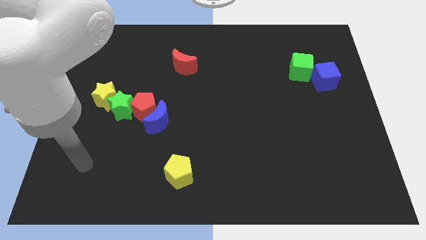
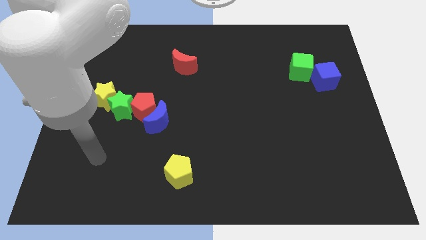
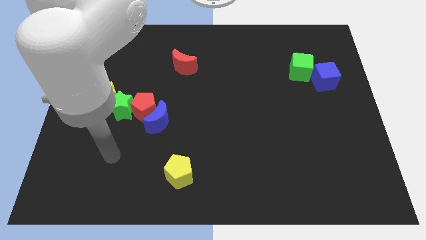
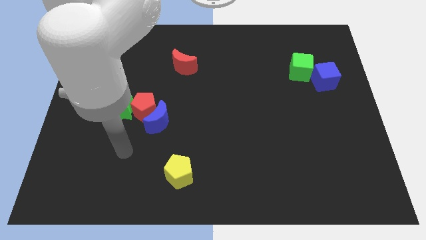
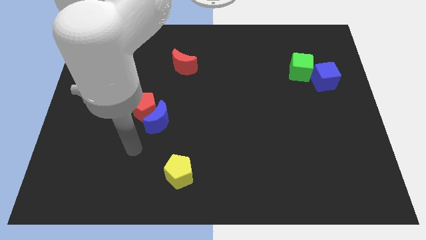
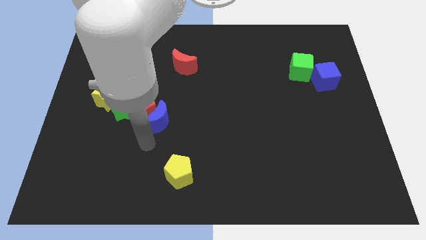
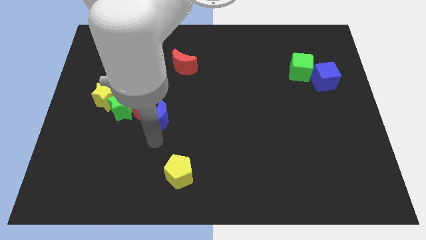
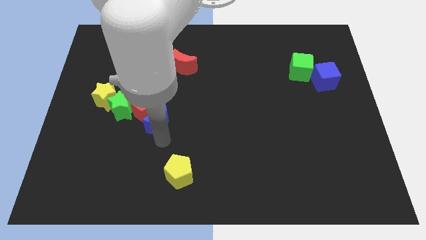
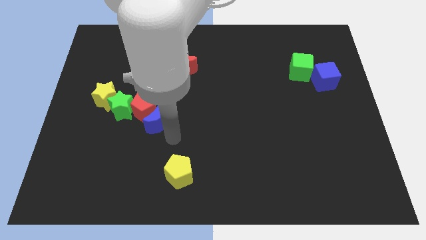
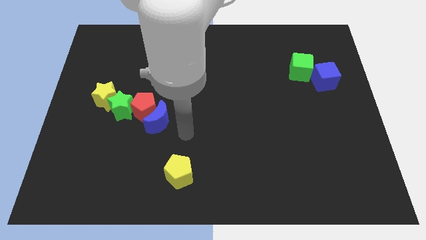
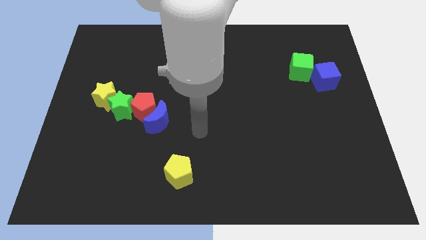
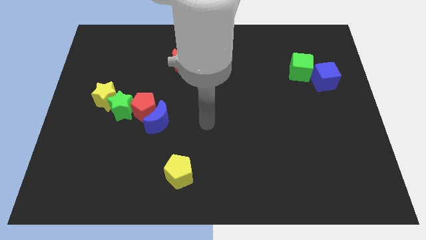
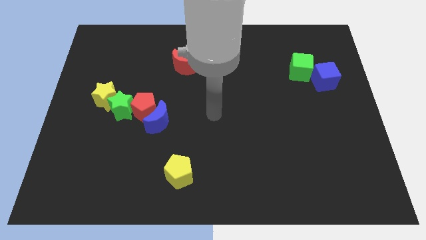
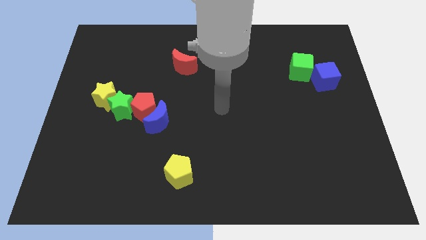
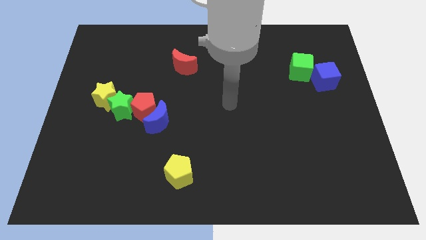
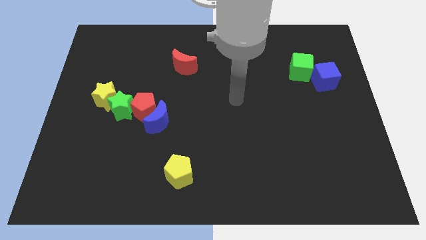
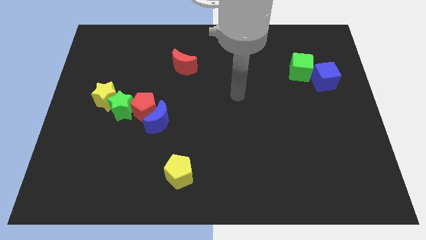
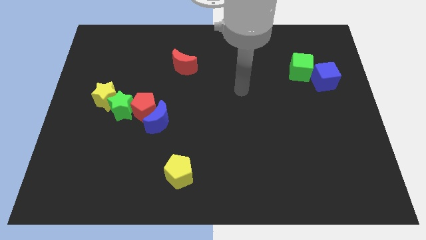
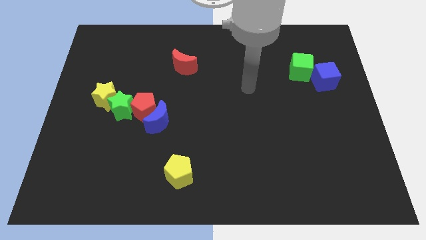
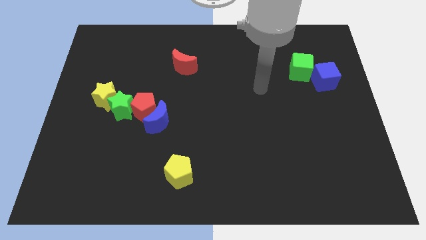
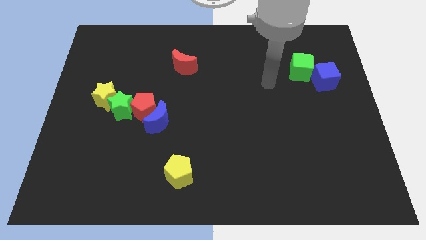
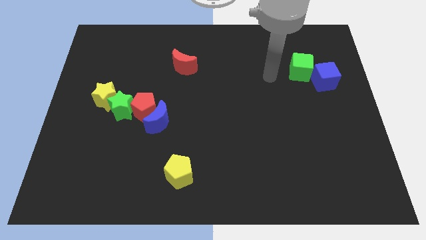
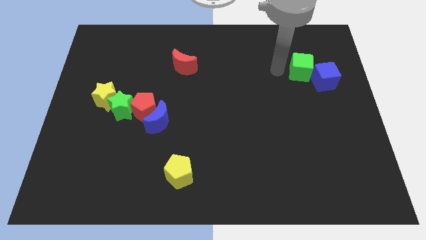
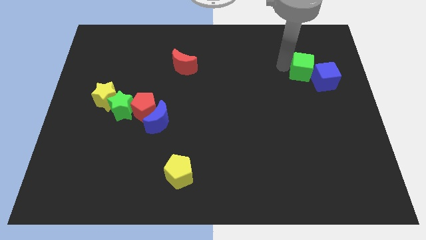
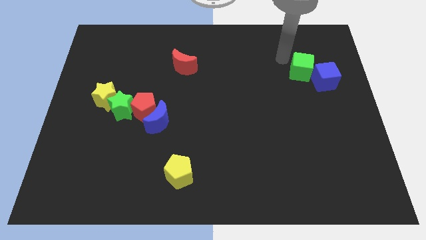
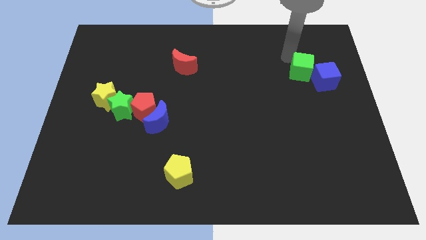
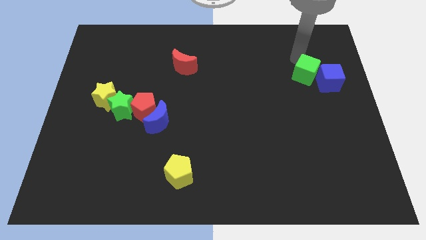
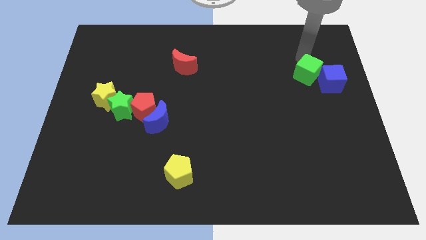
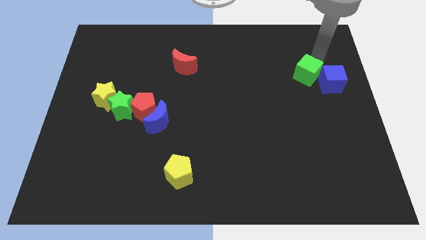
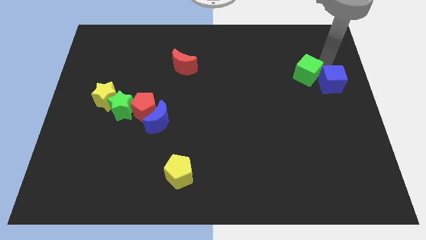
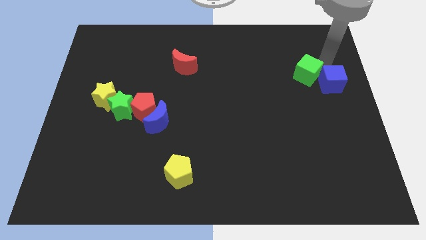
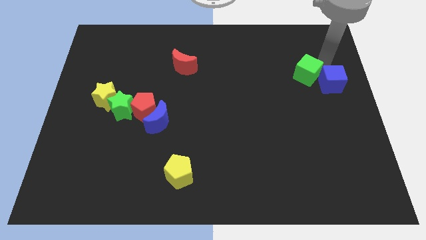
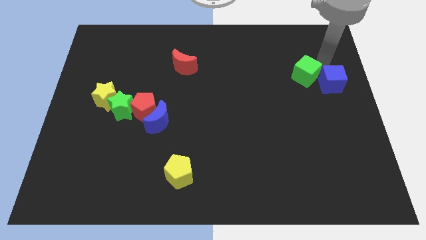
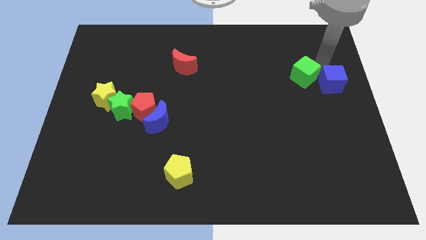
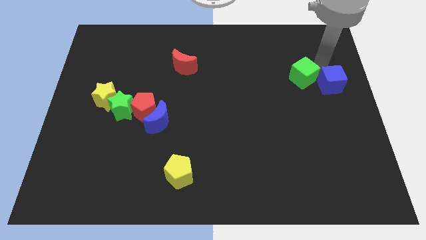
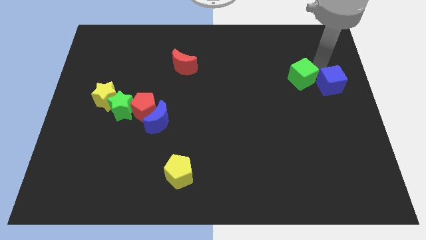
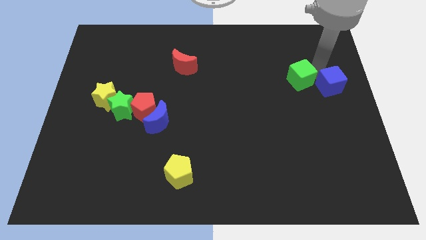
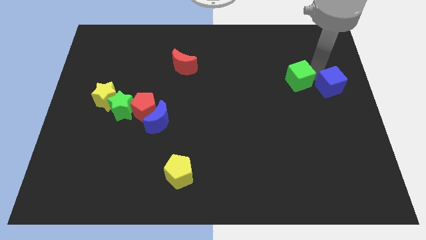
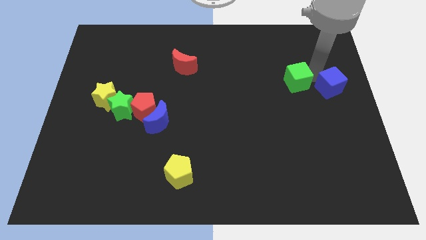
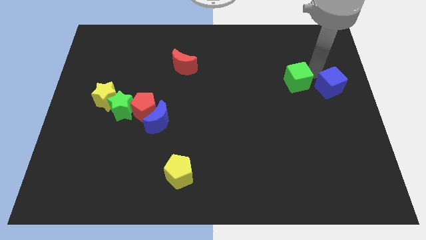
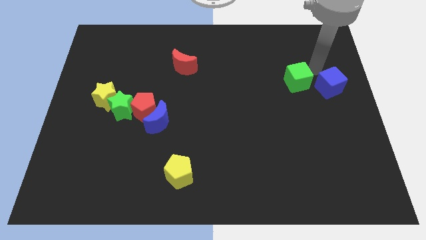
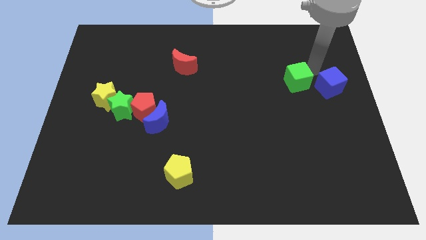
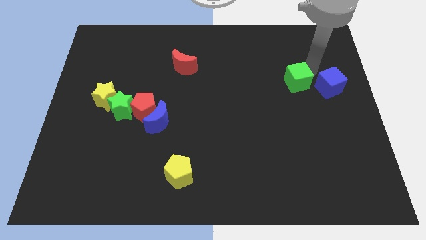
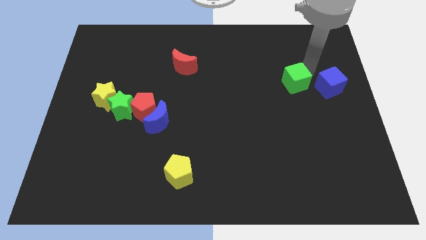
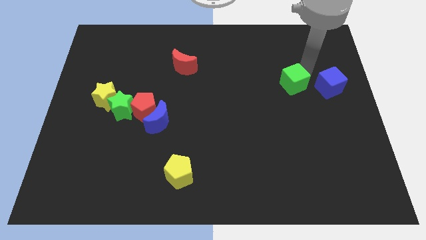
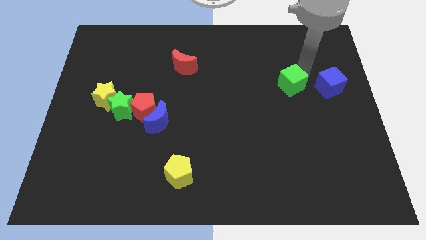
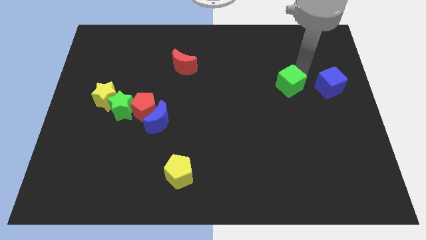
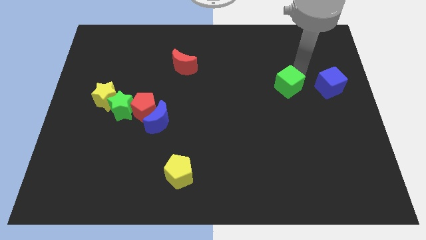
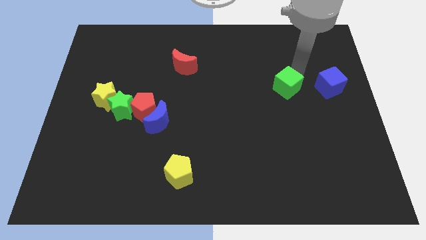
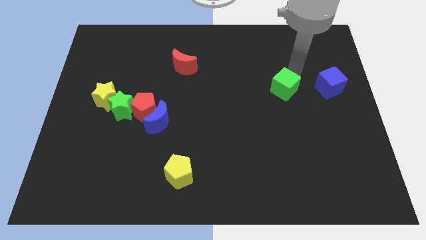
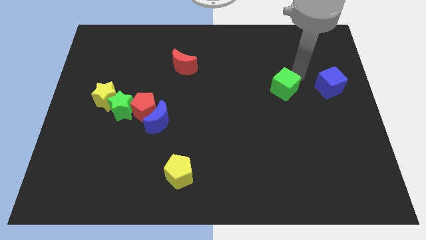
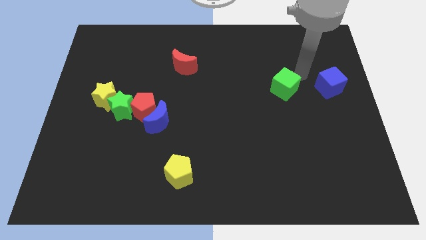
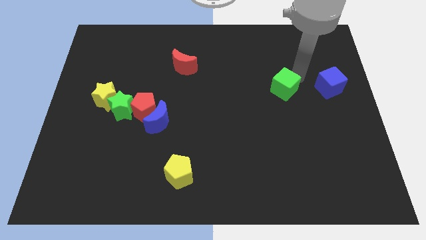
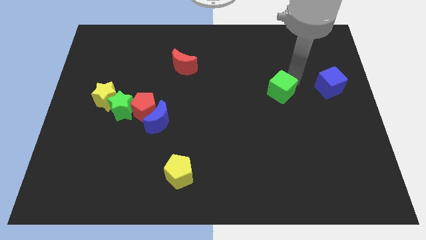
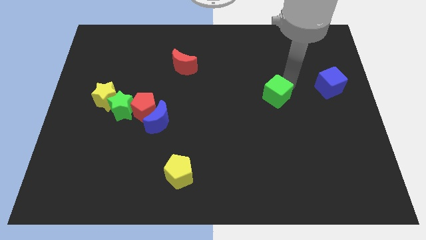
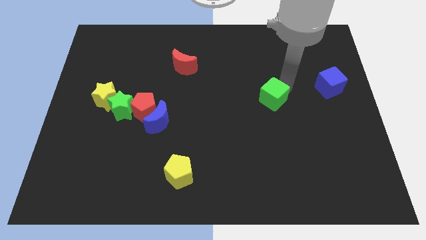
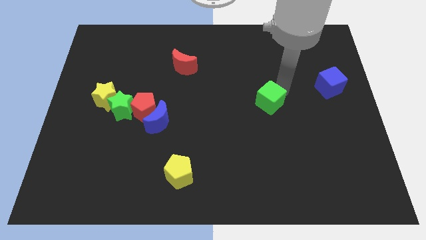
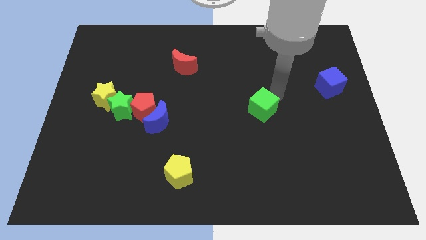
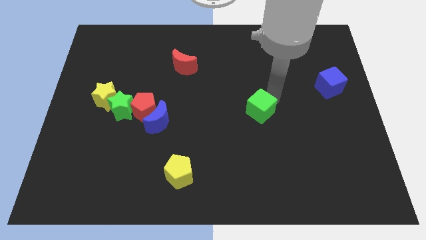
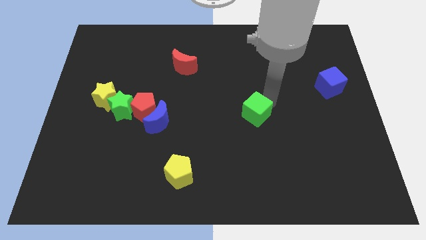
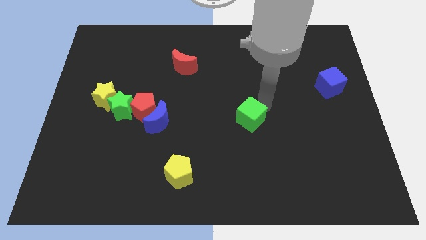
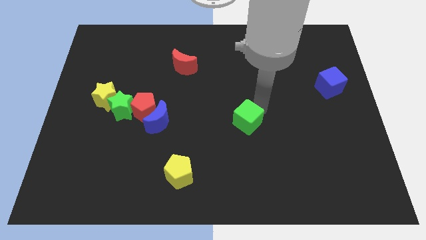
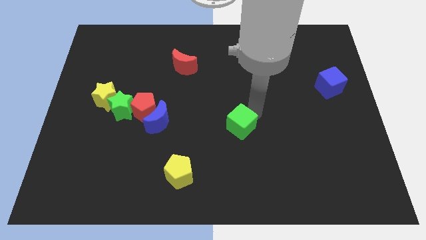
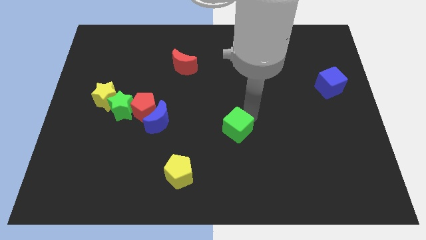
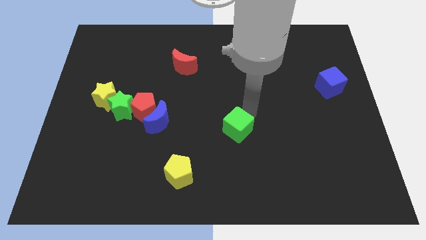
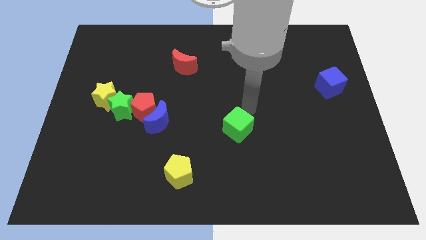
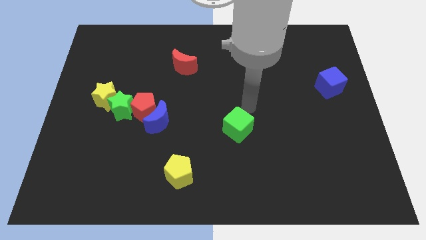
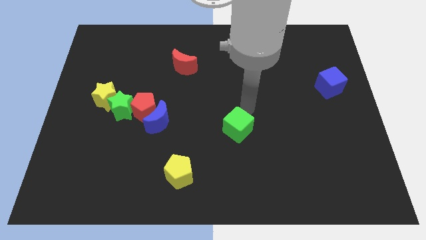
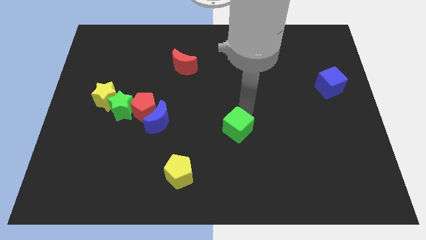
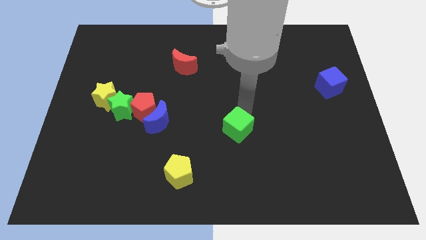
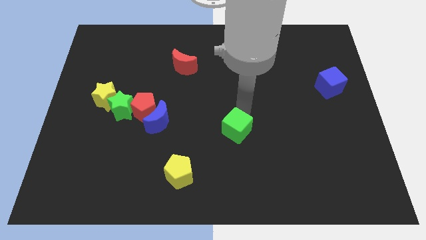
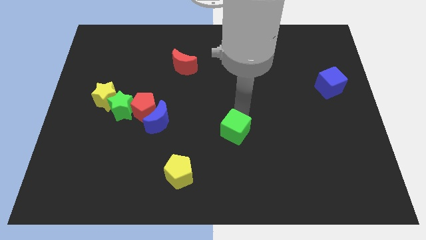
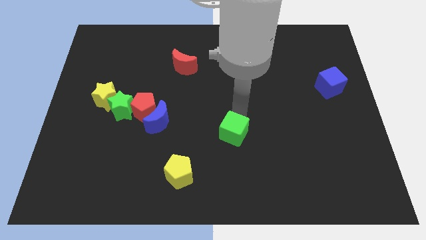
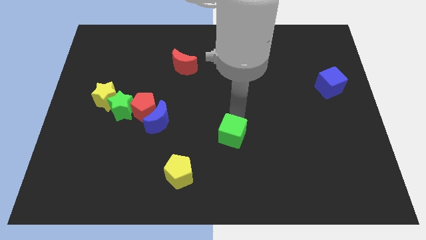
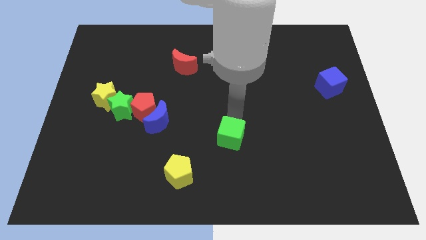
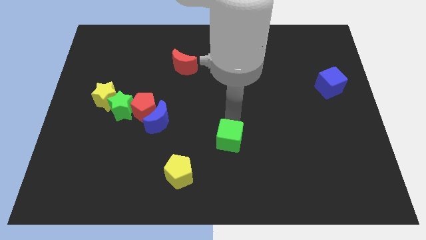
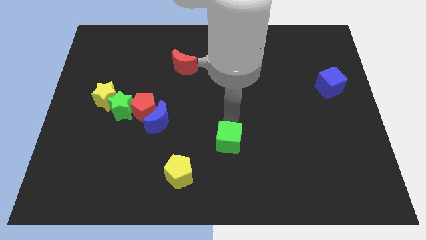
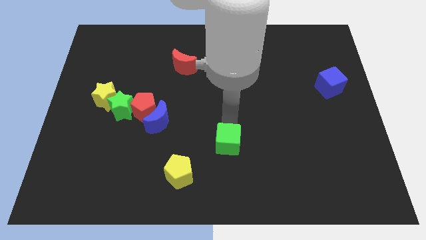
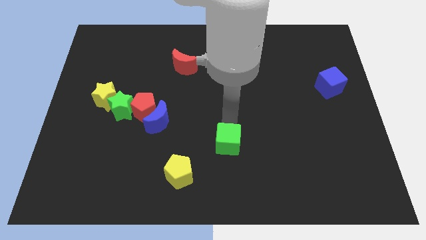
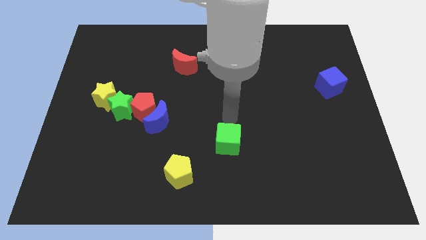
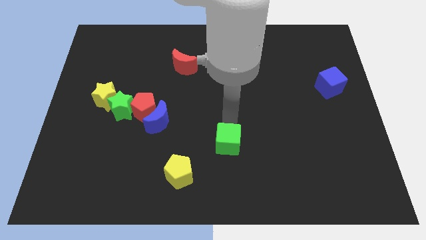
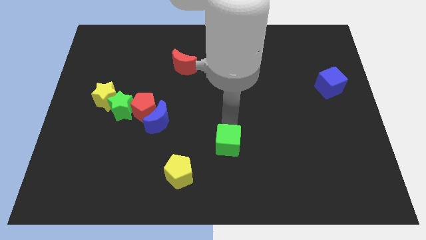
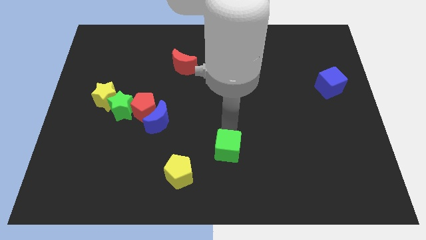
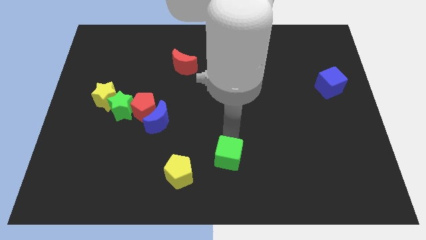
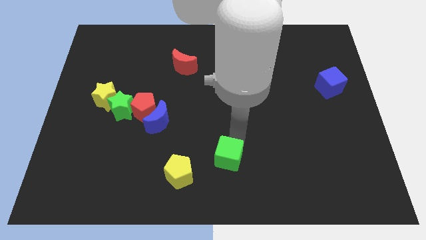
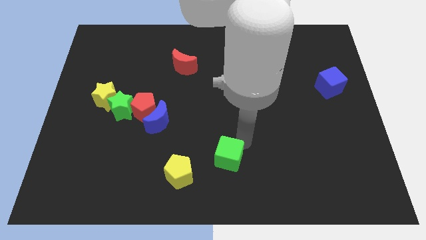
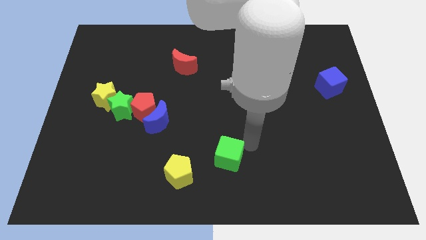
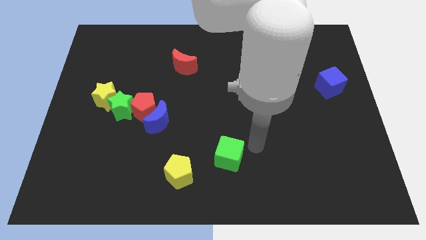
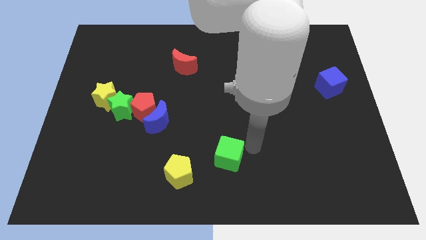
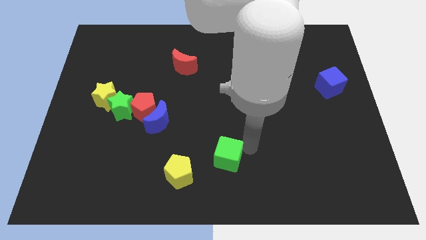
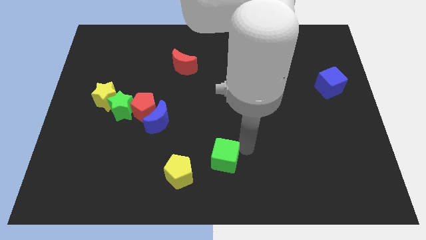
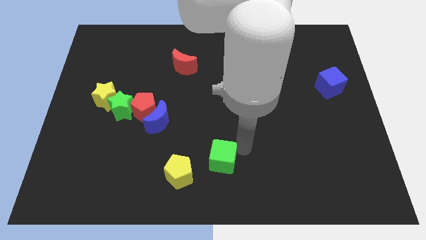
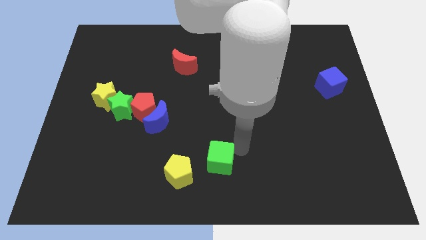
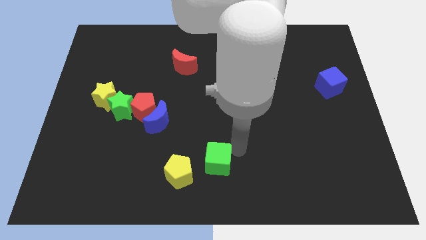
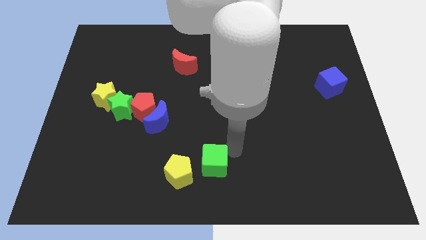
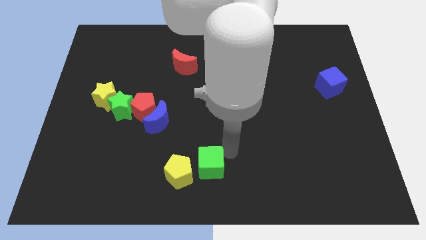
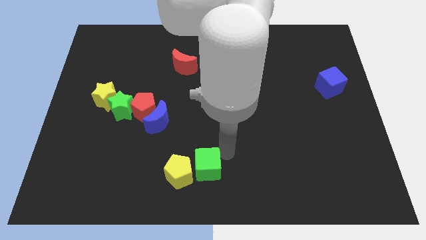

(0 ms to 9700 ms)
slide the green cube close to the yellow pentagon
